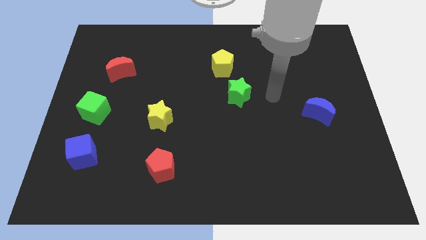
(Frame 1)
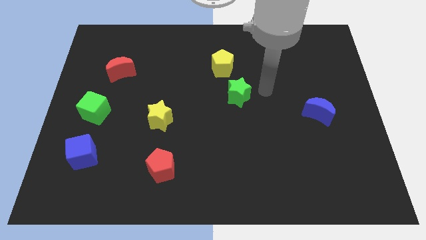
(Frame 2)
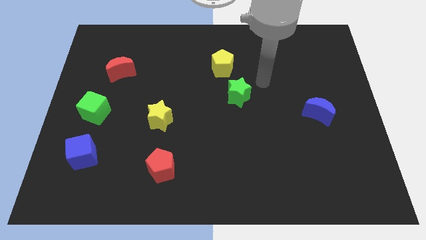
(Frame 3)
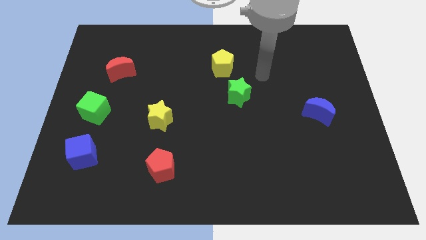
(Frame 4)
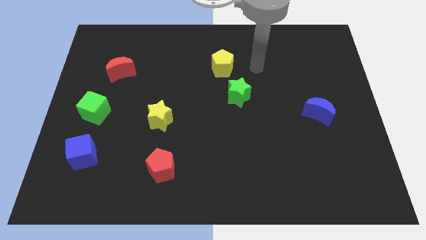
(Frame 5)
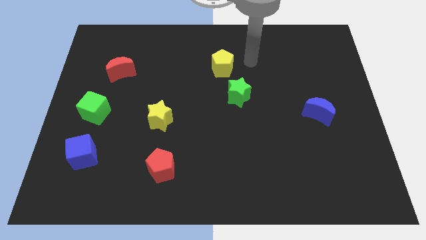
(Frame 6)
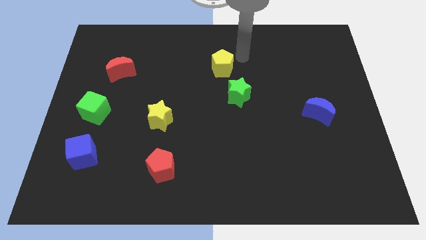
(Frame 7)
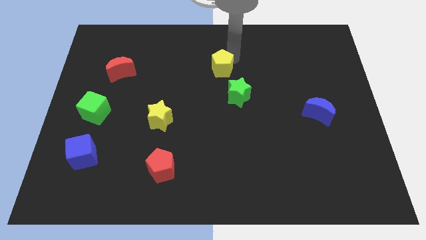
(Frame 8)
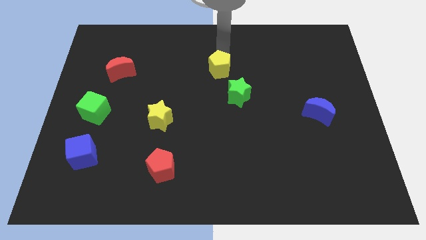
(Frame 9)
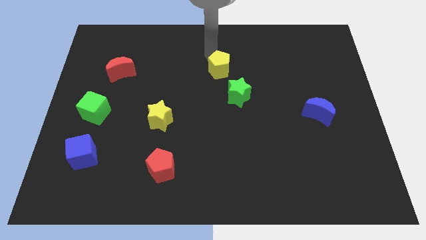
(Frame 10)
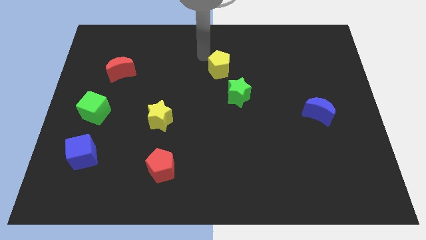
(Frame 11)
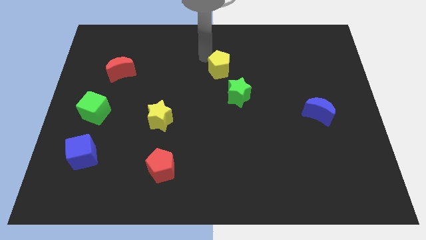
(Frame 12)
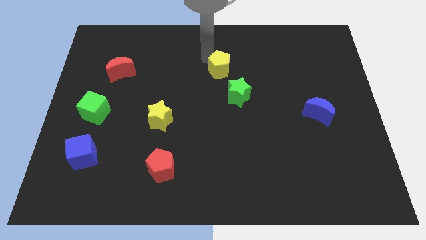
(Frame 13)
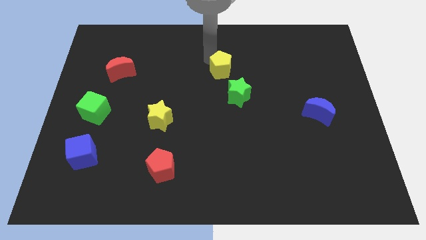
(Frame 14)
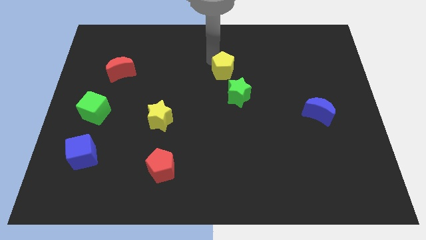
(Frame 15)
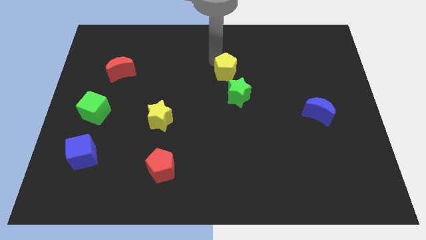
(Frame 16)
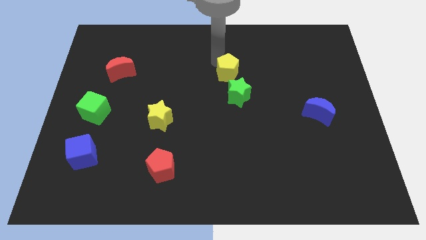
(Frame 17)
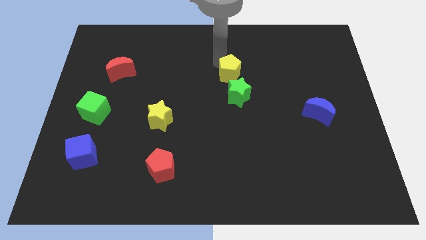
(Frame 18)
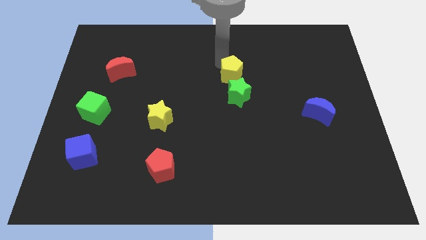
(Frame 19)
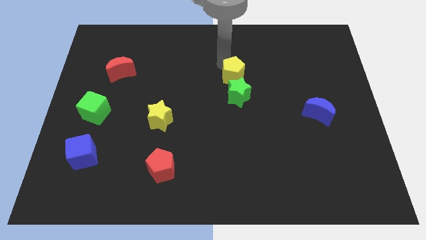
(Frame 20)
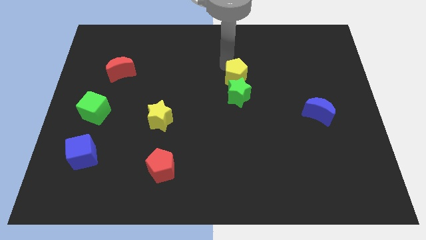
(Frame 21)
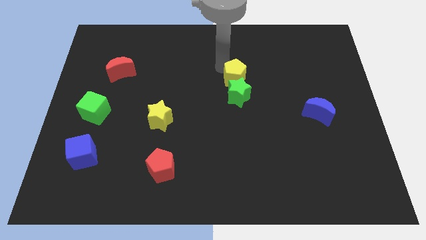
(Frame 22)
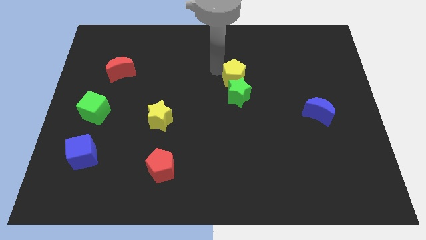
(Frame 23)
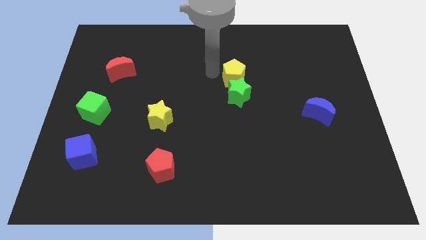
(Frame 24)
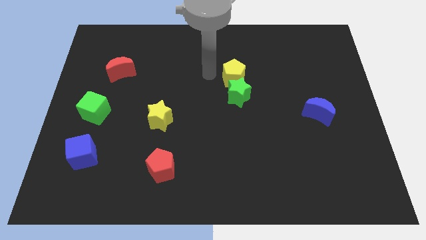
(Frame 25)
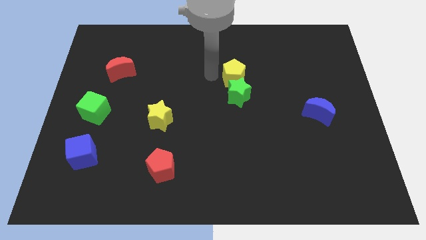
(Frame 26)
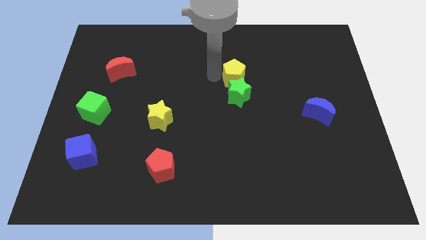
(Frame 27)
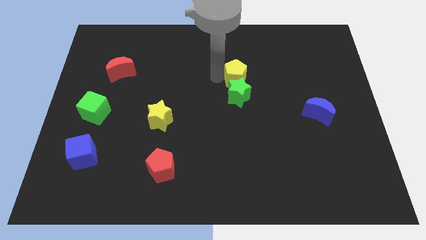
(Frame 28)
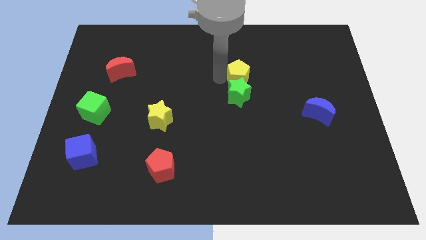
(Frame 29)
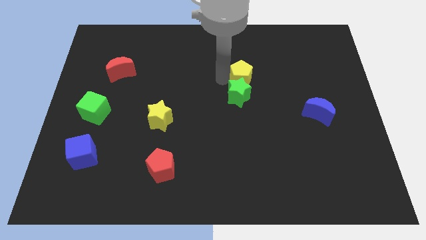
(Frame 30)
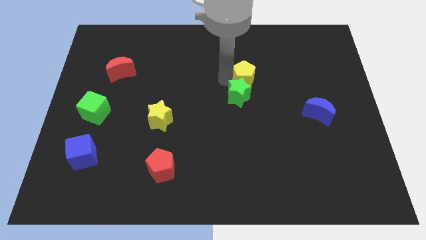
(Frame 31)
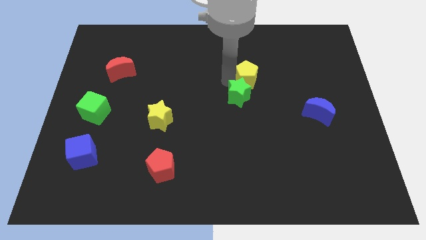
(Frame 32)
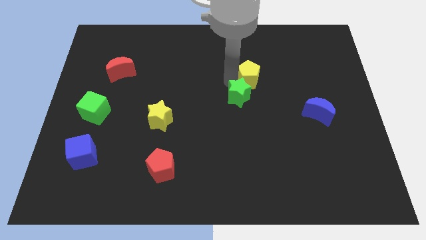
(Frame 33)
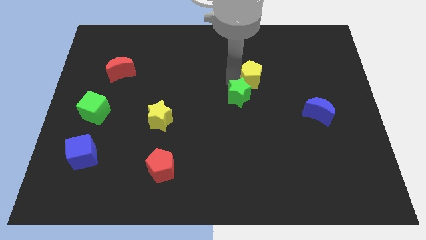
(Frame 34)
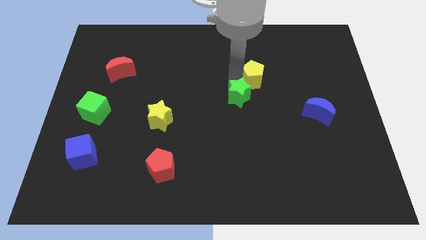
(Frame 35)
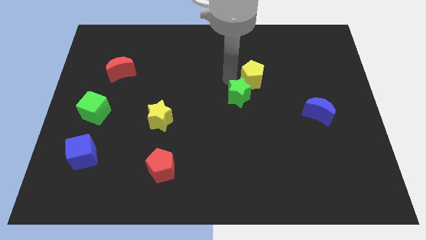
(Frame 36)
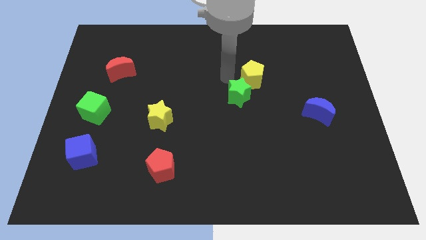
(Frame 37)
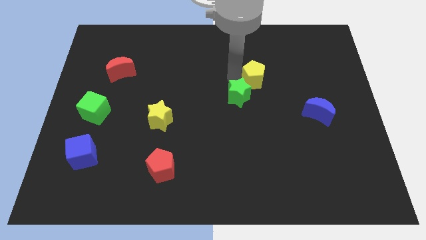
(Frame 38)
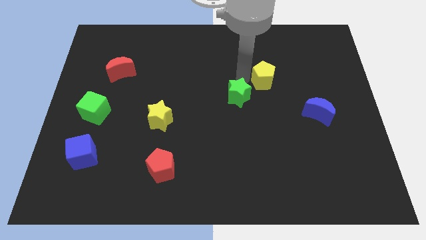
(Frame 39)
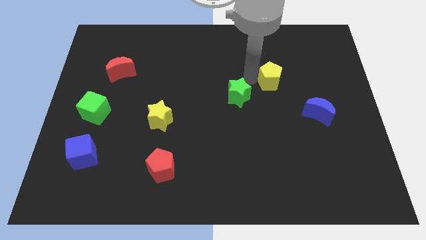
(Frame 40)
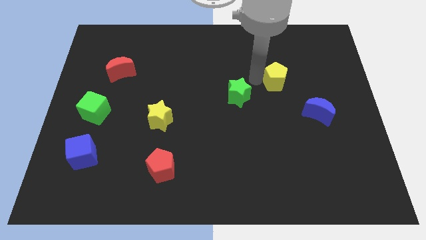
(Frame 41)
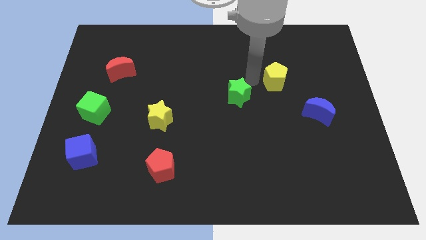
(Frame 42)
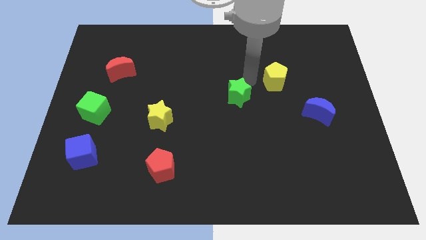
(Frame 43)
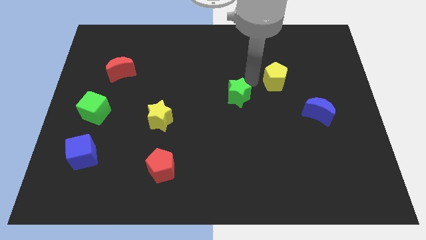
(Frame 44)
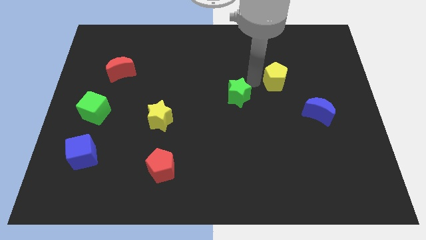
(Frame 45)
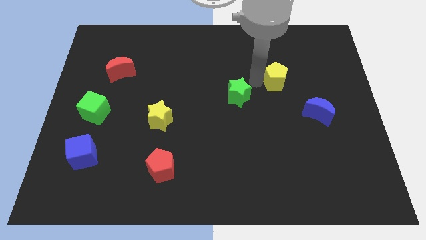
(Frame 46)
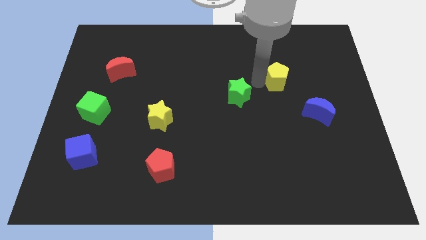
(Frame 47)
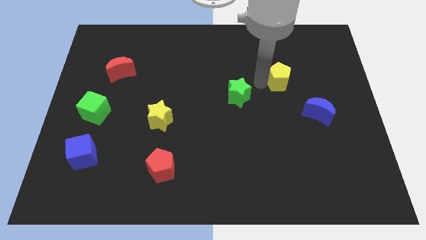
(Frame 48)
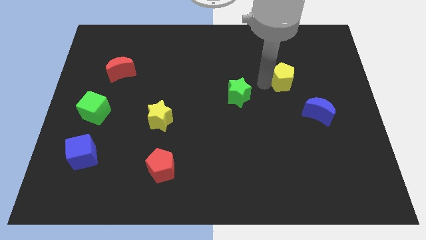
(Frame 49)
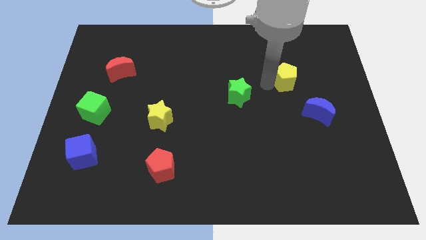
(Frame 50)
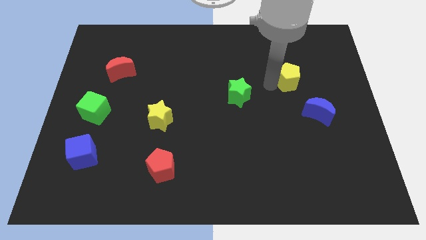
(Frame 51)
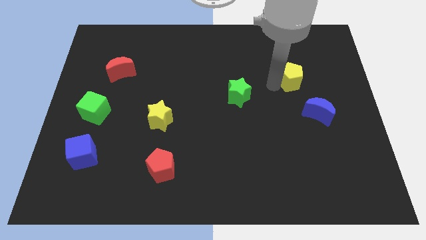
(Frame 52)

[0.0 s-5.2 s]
push the yellow pentagon to the top side of the blue moon

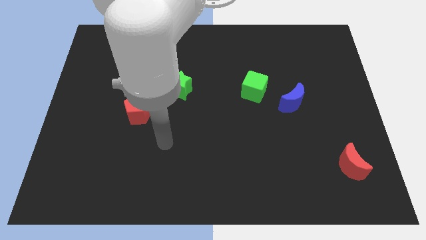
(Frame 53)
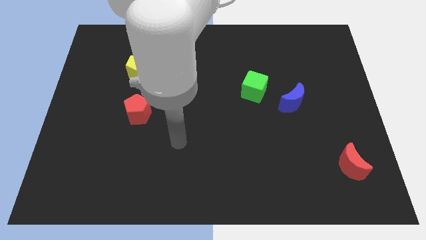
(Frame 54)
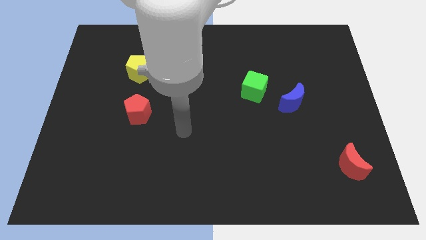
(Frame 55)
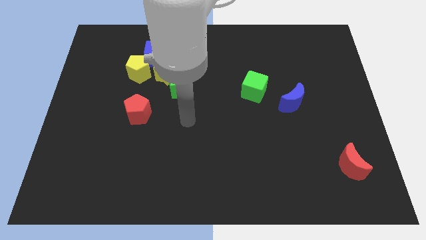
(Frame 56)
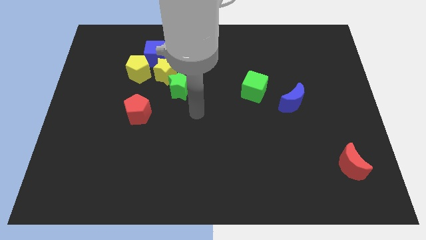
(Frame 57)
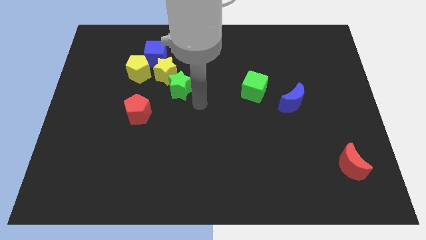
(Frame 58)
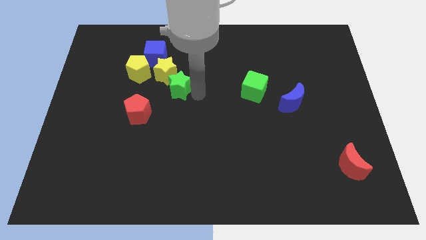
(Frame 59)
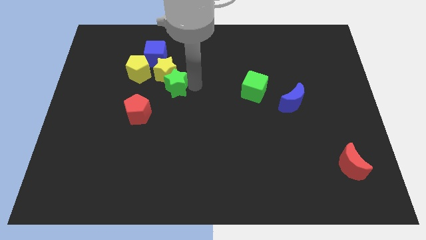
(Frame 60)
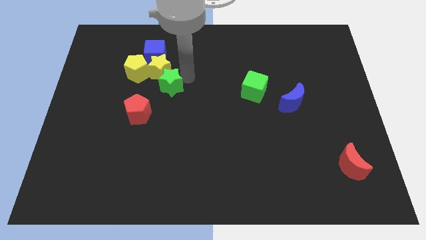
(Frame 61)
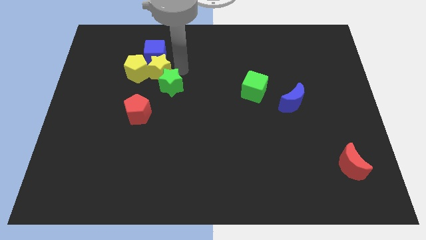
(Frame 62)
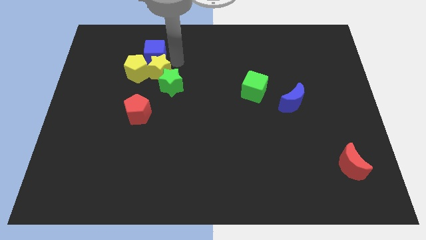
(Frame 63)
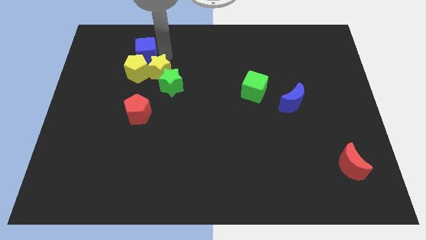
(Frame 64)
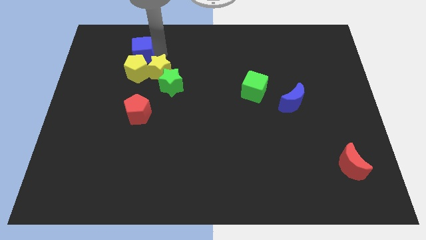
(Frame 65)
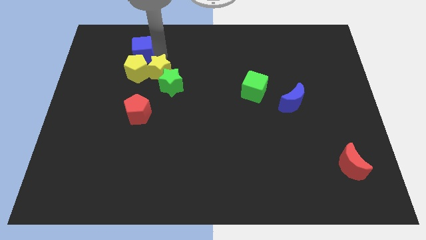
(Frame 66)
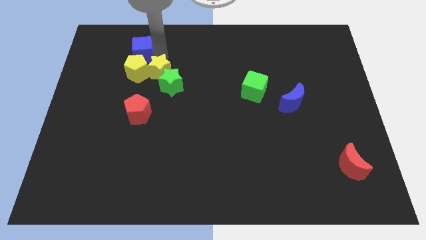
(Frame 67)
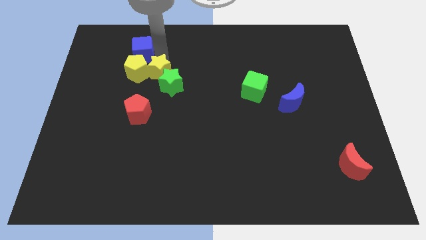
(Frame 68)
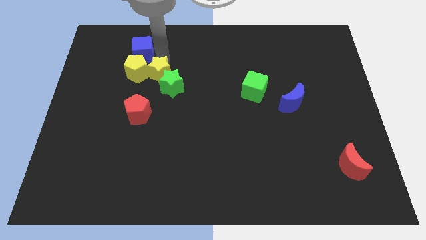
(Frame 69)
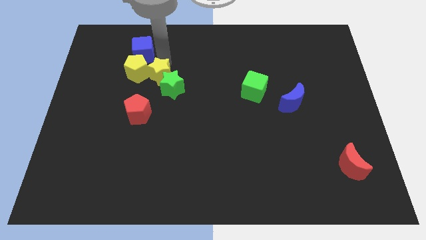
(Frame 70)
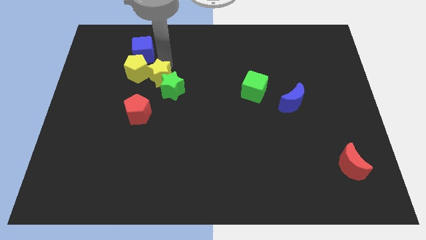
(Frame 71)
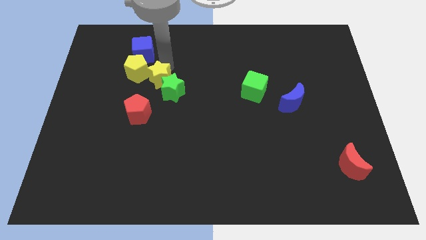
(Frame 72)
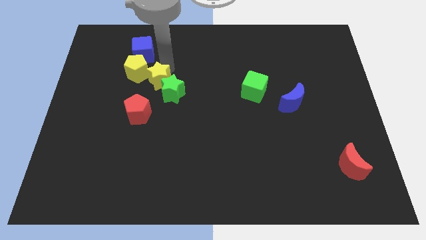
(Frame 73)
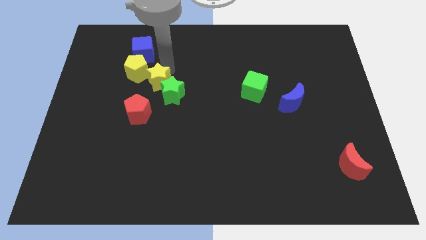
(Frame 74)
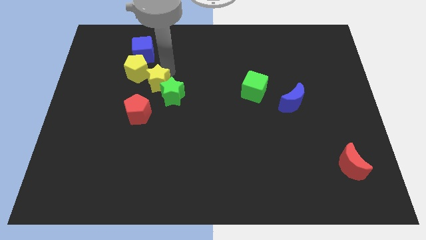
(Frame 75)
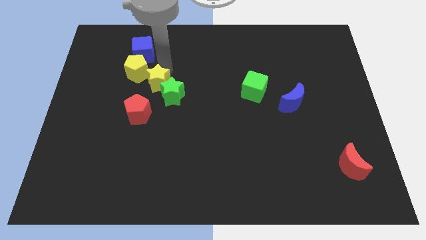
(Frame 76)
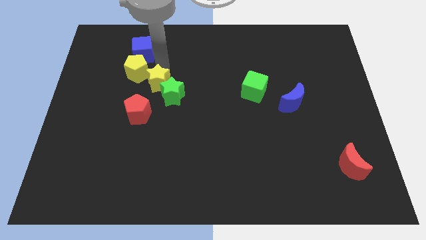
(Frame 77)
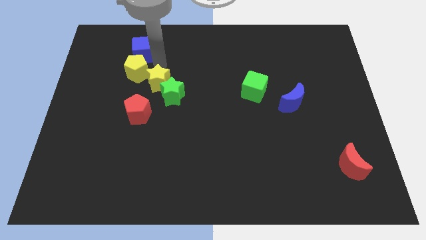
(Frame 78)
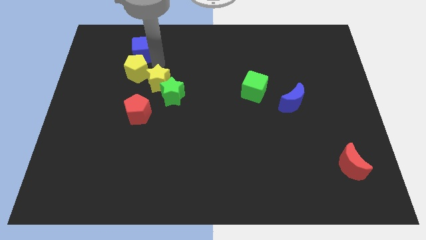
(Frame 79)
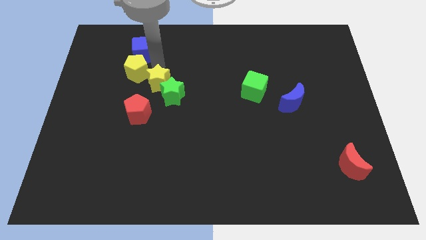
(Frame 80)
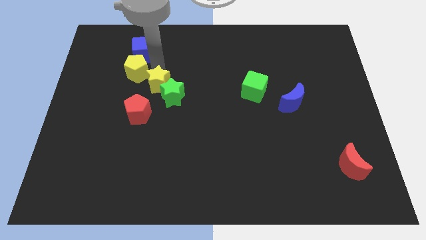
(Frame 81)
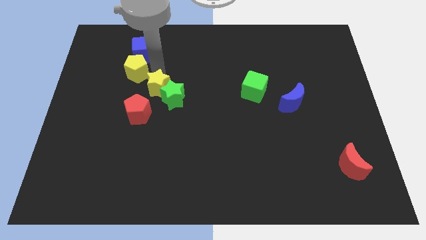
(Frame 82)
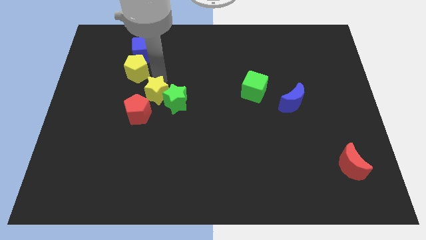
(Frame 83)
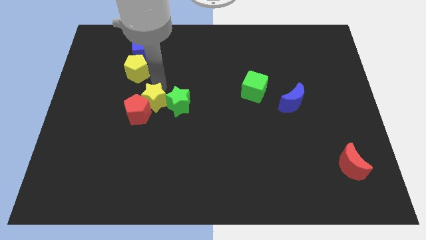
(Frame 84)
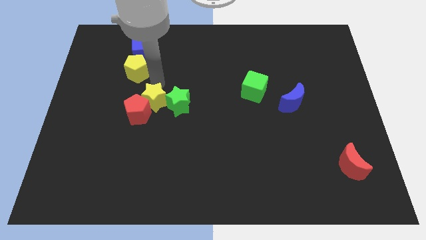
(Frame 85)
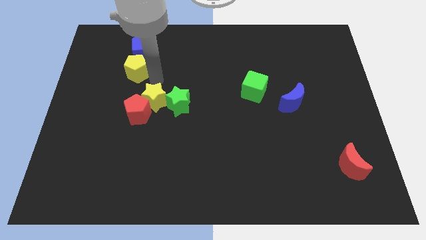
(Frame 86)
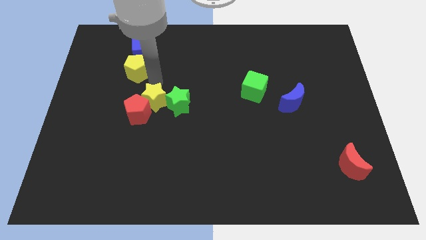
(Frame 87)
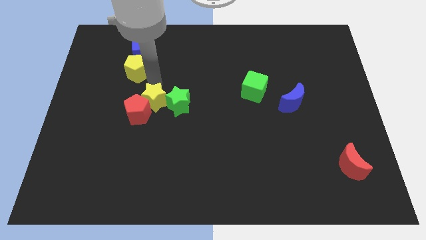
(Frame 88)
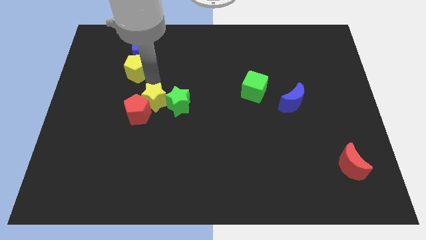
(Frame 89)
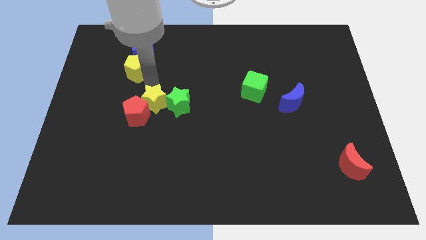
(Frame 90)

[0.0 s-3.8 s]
move the yellow star to the bottom left of the green star
